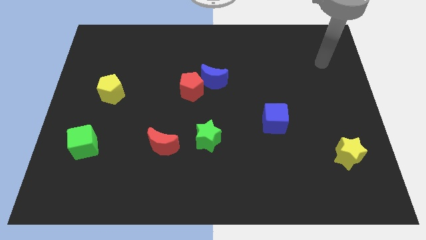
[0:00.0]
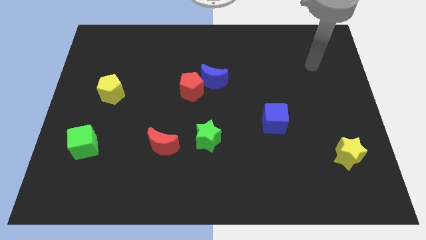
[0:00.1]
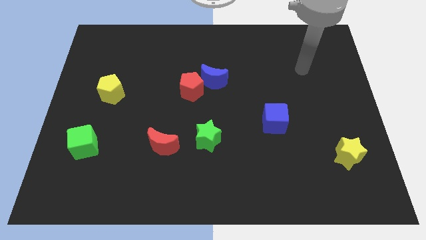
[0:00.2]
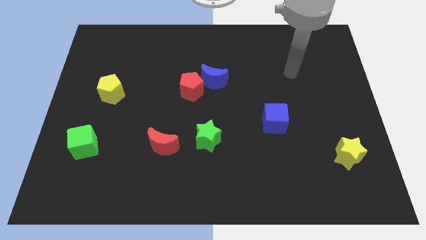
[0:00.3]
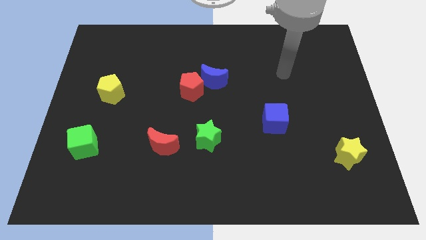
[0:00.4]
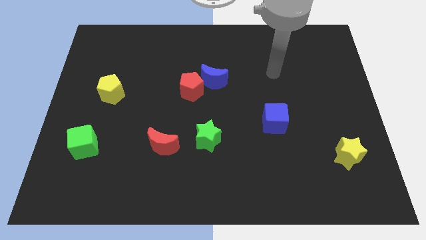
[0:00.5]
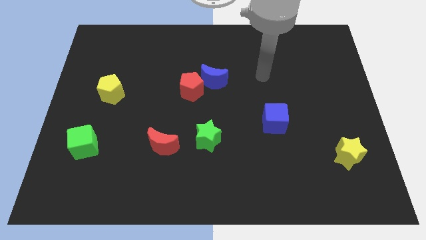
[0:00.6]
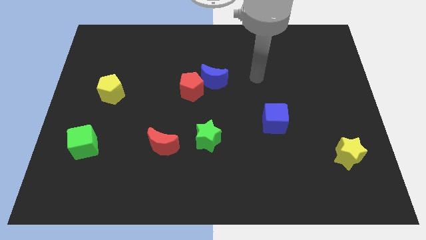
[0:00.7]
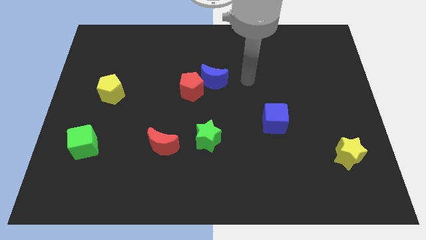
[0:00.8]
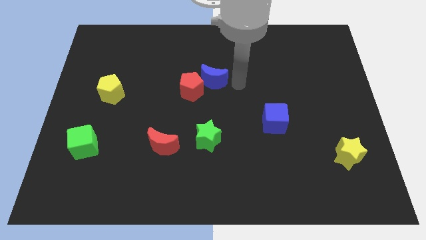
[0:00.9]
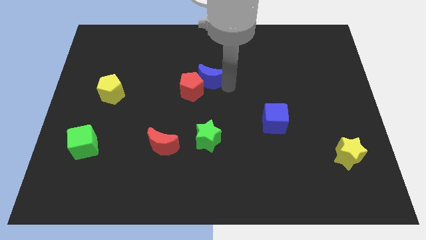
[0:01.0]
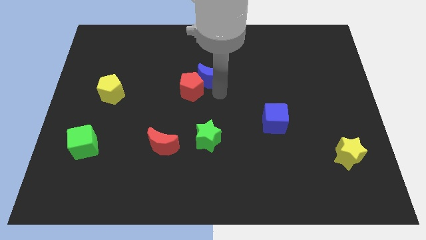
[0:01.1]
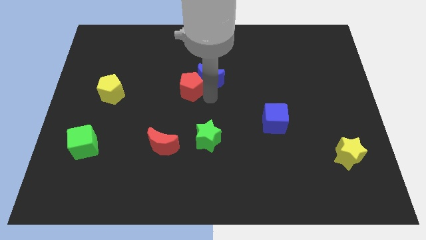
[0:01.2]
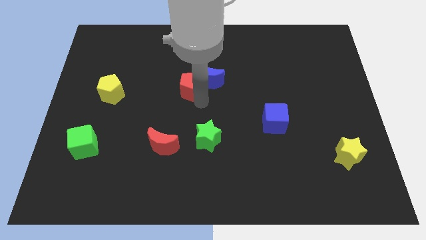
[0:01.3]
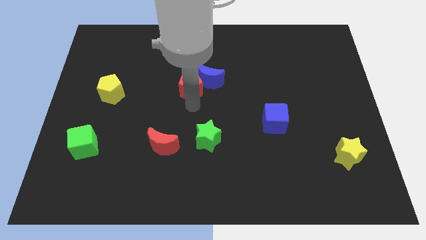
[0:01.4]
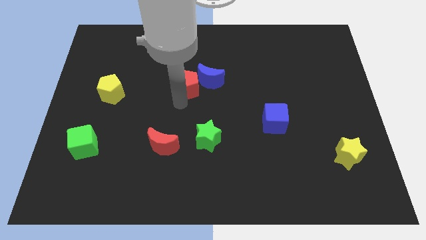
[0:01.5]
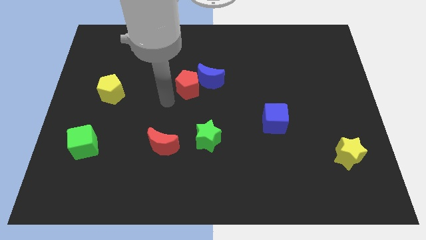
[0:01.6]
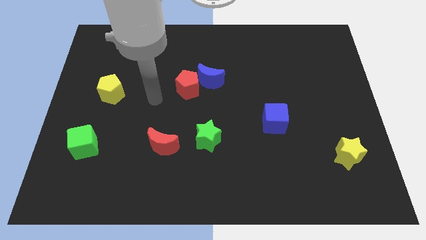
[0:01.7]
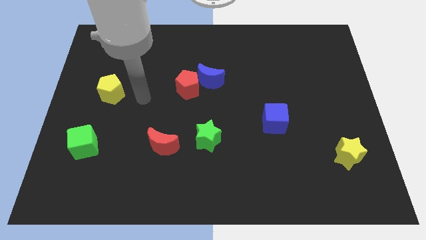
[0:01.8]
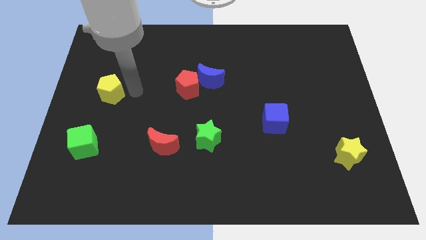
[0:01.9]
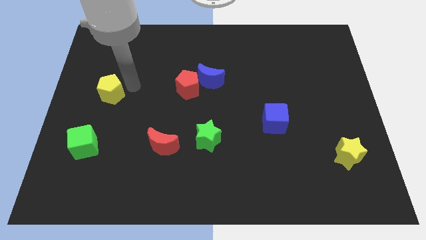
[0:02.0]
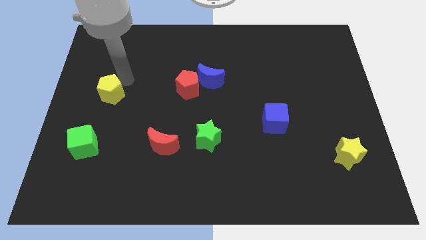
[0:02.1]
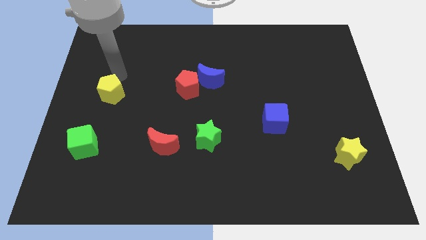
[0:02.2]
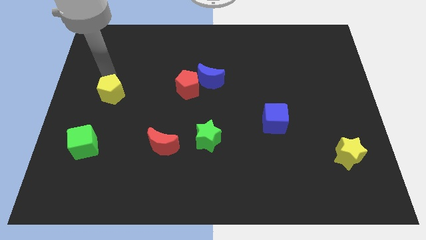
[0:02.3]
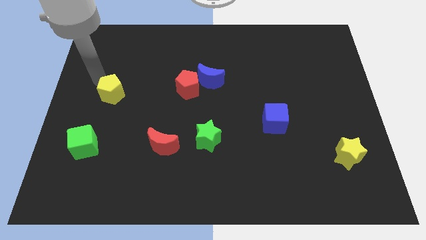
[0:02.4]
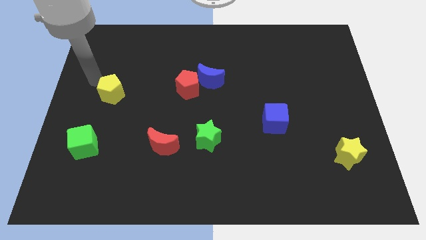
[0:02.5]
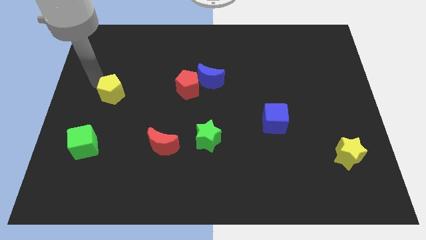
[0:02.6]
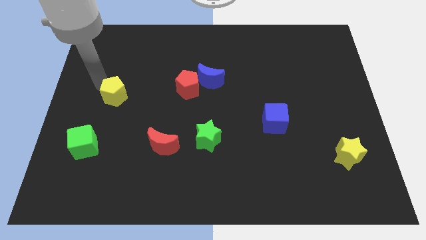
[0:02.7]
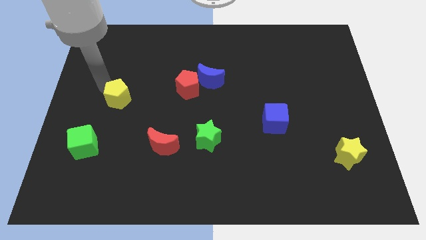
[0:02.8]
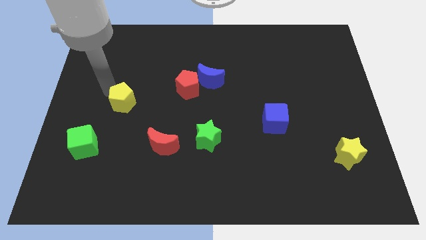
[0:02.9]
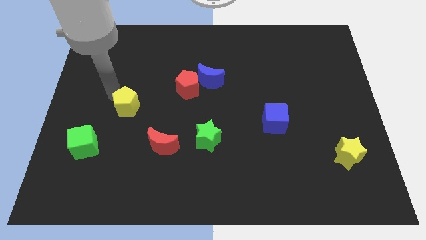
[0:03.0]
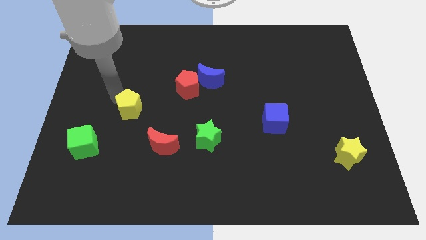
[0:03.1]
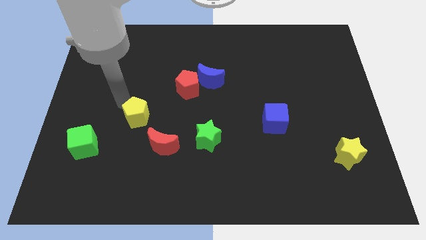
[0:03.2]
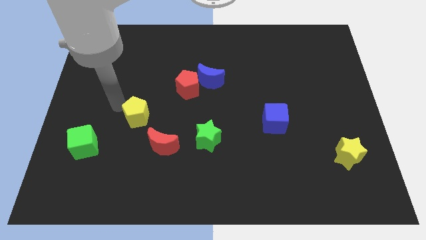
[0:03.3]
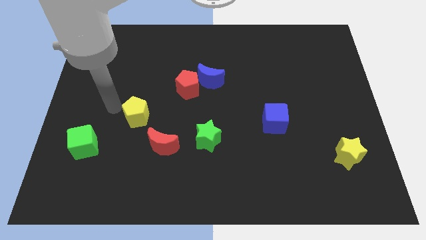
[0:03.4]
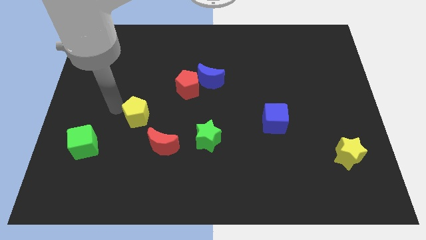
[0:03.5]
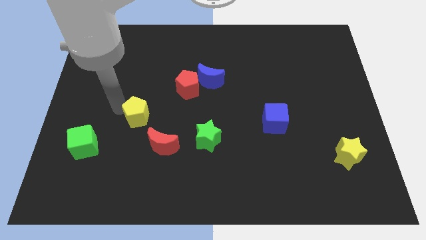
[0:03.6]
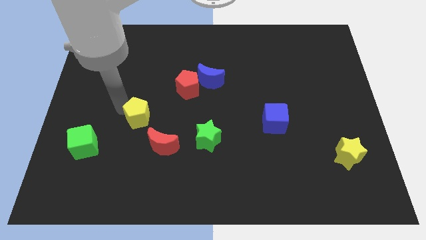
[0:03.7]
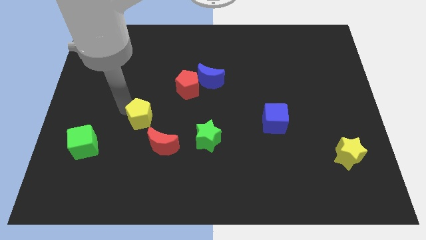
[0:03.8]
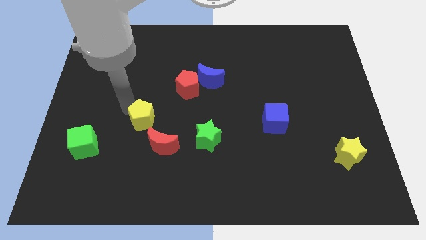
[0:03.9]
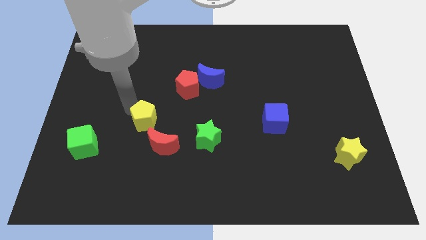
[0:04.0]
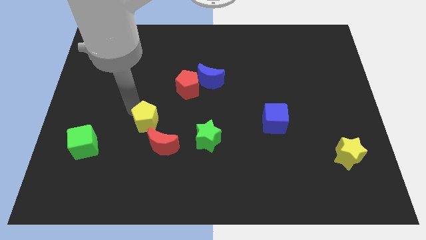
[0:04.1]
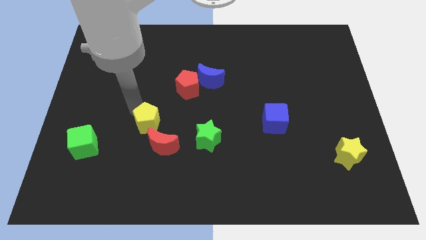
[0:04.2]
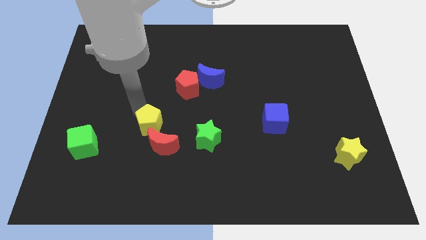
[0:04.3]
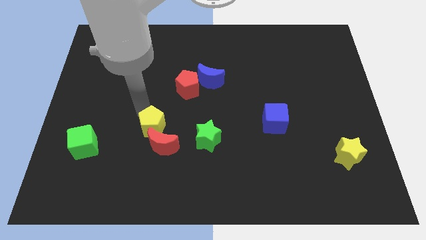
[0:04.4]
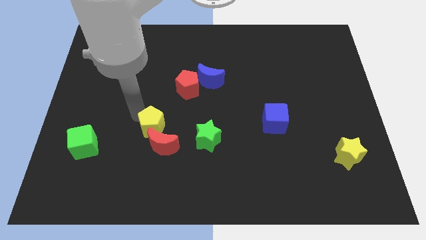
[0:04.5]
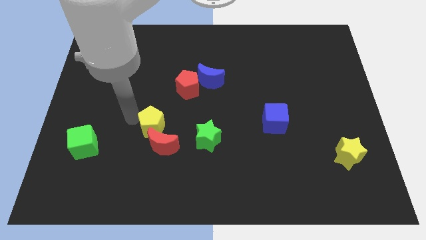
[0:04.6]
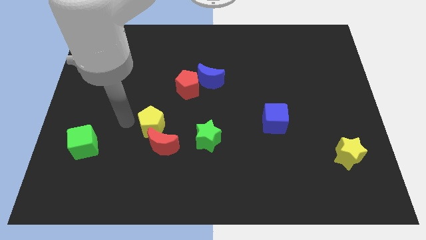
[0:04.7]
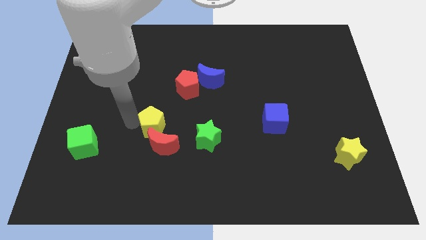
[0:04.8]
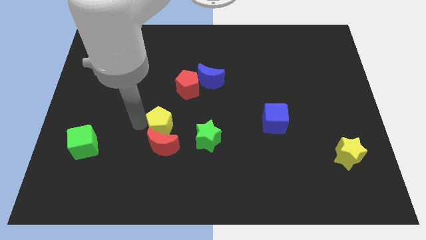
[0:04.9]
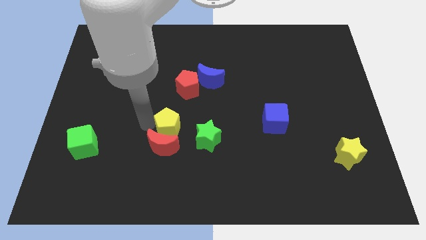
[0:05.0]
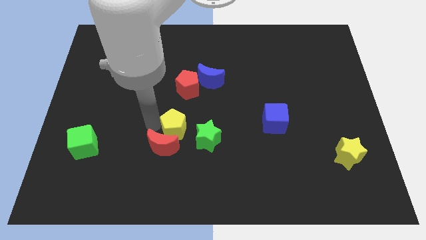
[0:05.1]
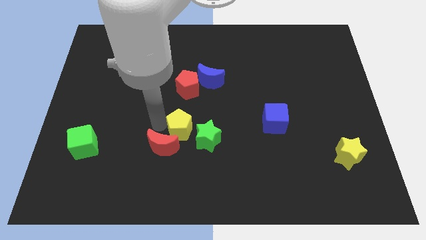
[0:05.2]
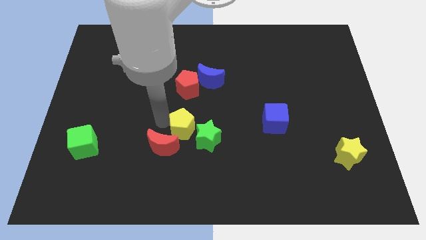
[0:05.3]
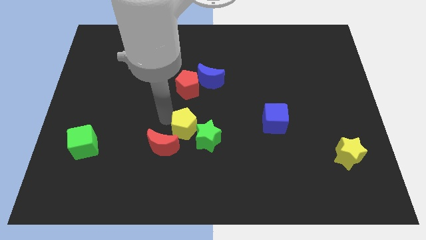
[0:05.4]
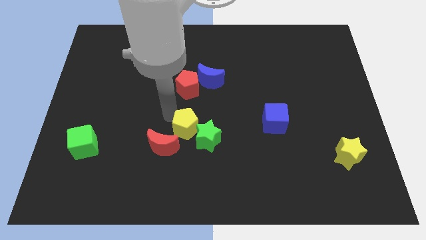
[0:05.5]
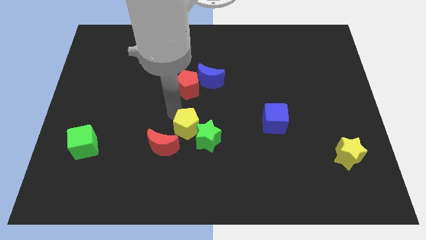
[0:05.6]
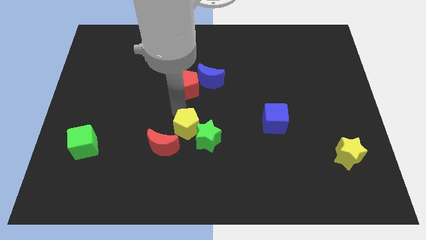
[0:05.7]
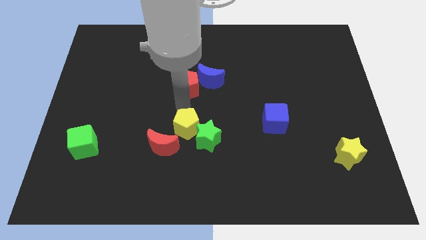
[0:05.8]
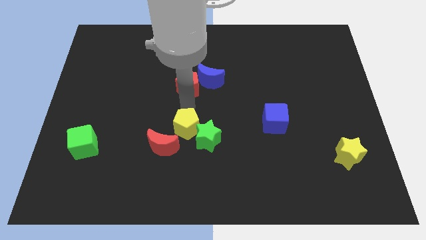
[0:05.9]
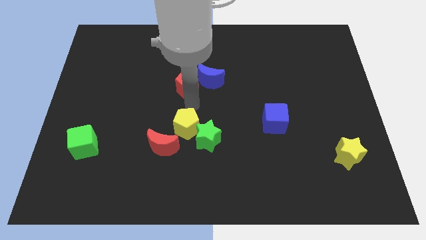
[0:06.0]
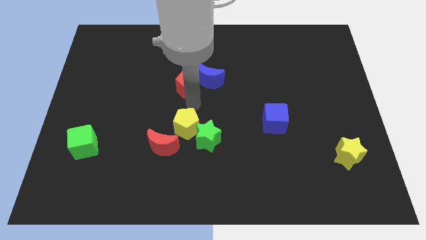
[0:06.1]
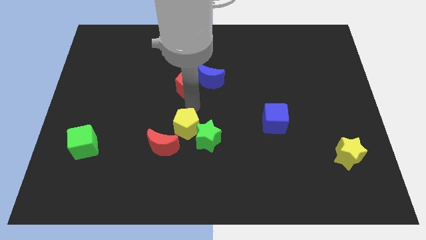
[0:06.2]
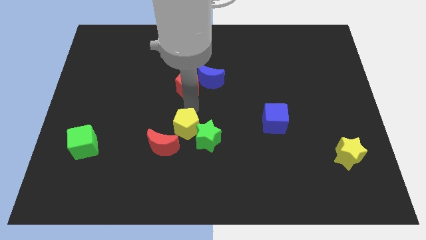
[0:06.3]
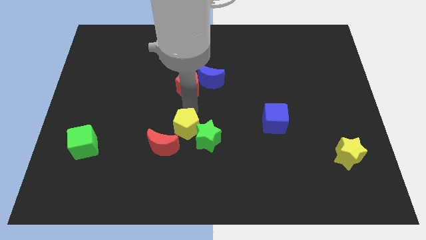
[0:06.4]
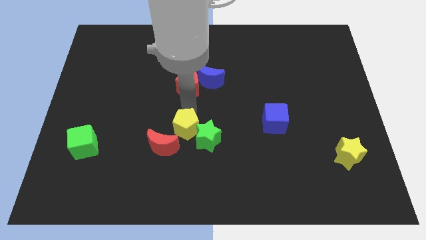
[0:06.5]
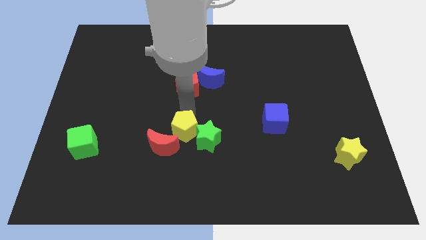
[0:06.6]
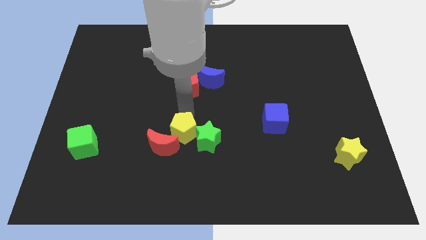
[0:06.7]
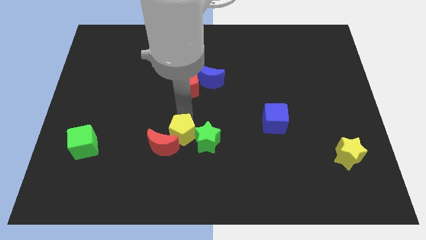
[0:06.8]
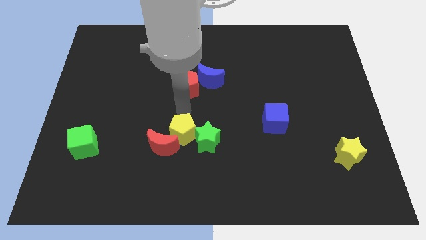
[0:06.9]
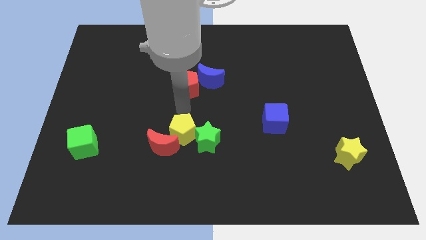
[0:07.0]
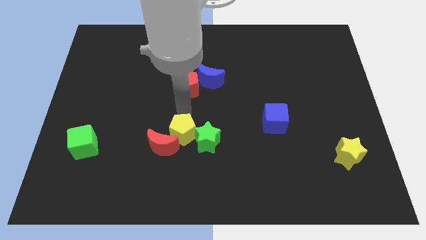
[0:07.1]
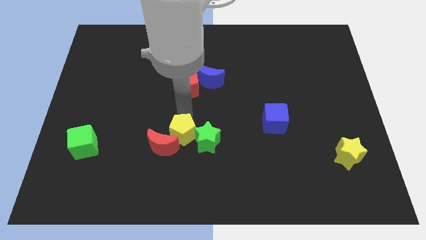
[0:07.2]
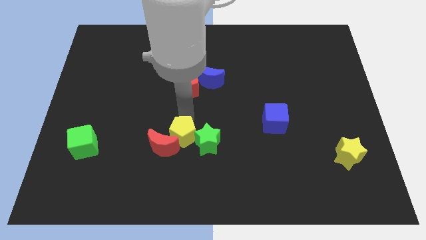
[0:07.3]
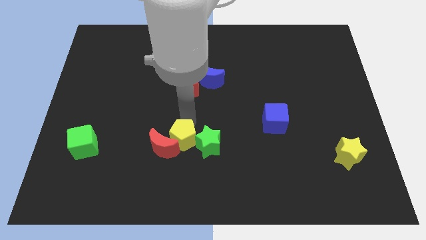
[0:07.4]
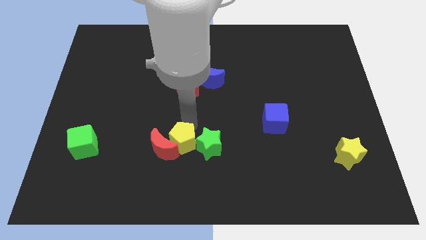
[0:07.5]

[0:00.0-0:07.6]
slide the yellow pentagon to the bottom right of the red moon
